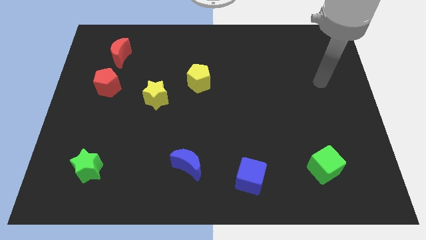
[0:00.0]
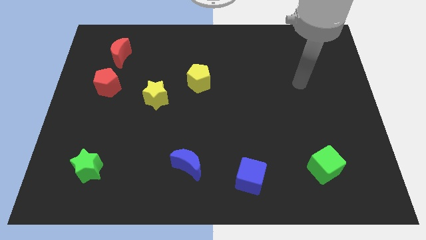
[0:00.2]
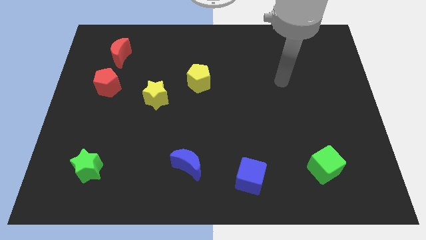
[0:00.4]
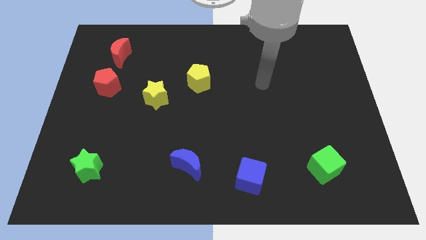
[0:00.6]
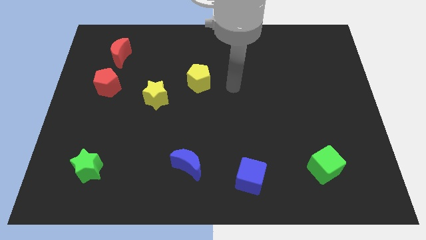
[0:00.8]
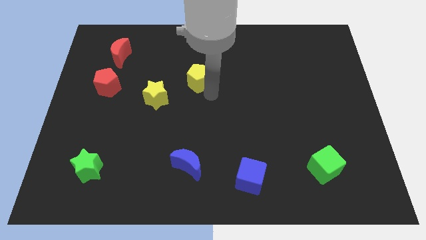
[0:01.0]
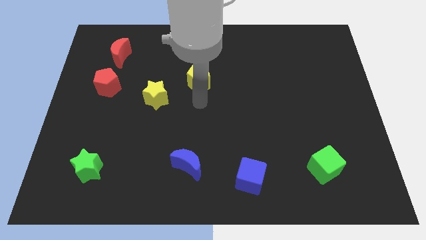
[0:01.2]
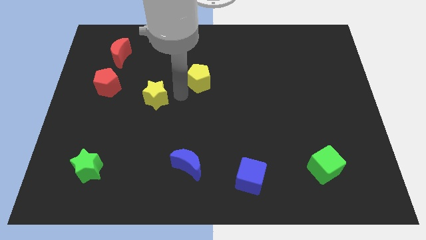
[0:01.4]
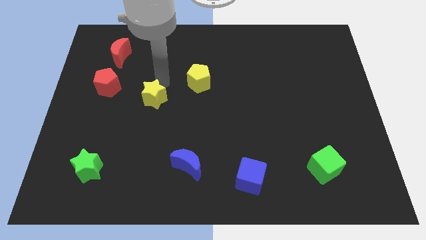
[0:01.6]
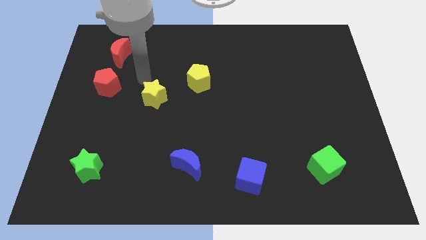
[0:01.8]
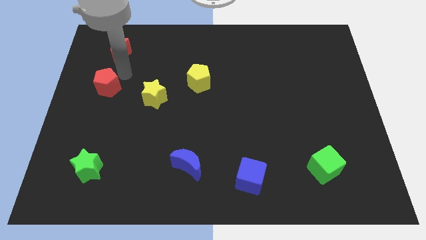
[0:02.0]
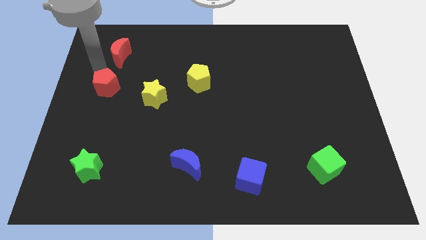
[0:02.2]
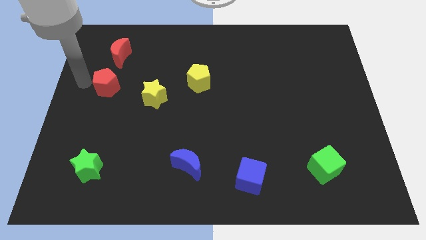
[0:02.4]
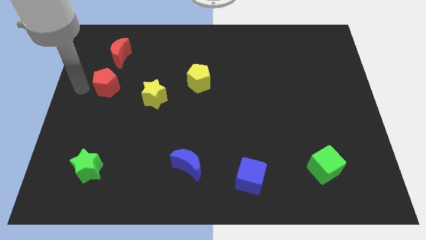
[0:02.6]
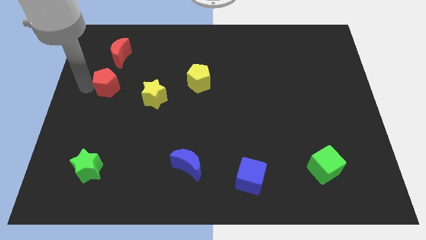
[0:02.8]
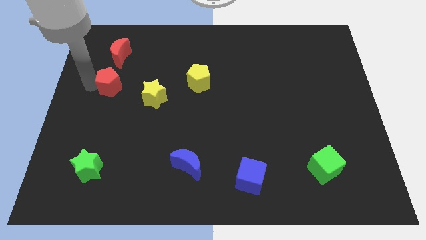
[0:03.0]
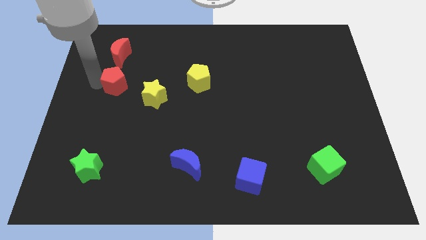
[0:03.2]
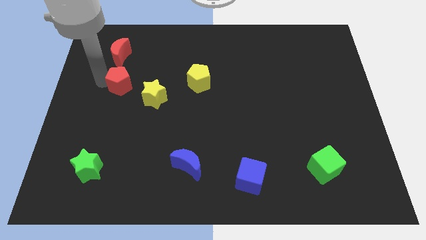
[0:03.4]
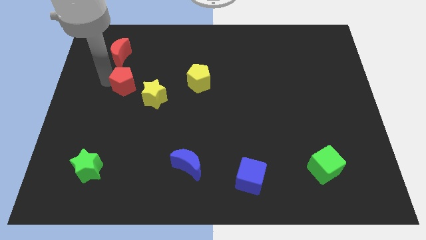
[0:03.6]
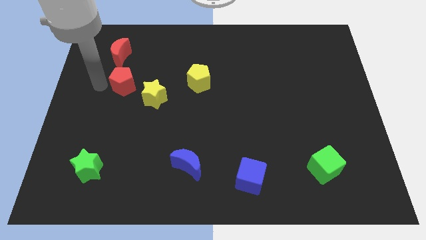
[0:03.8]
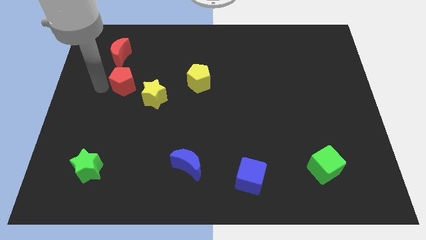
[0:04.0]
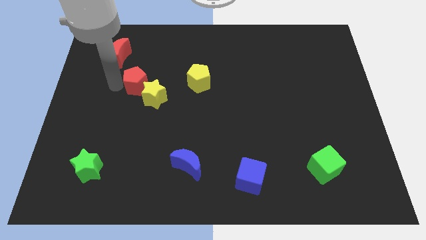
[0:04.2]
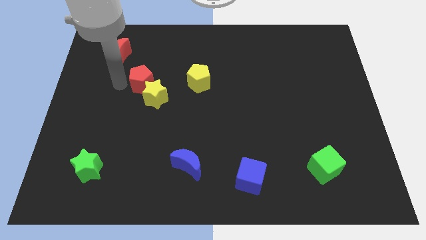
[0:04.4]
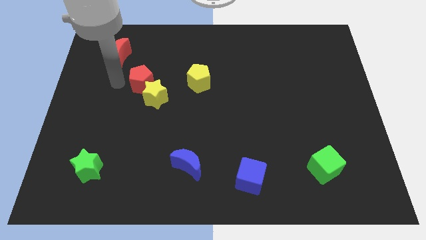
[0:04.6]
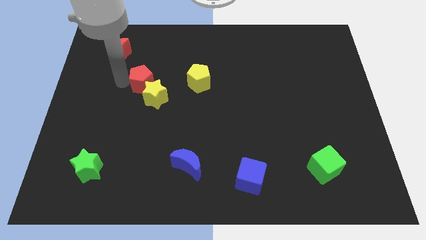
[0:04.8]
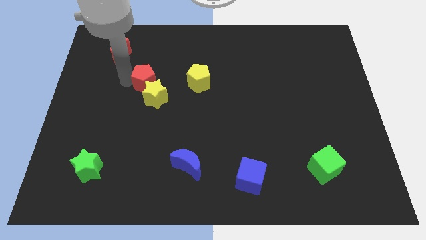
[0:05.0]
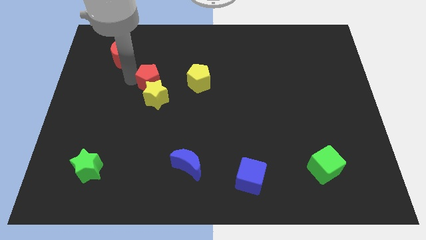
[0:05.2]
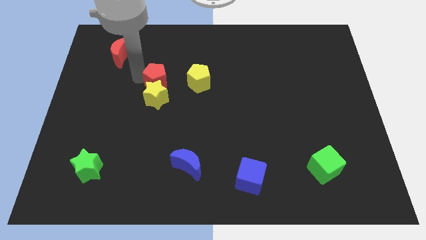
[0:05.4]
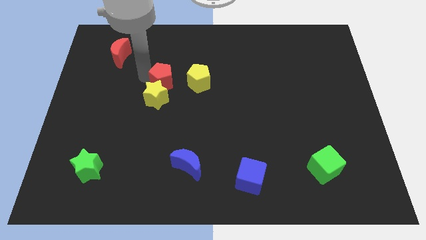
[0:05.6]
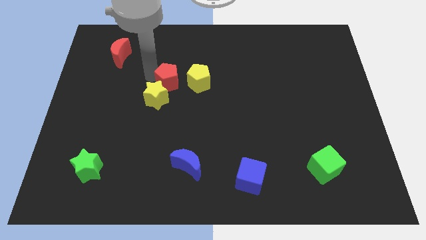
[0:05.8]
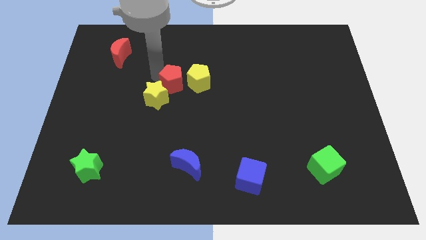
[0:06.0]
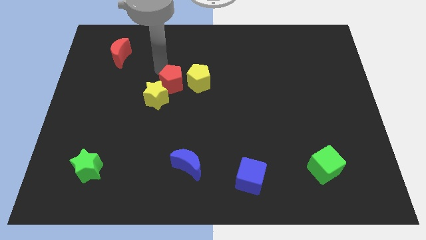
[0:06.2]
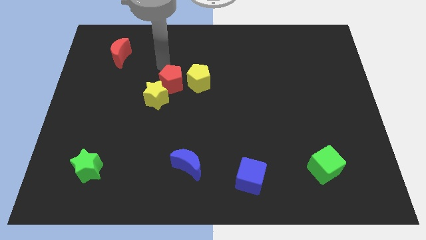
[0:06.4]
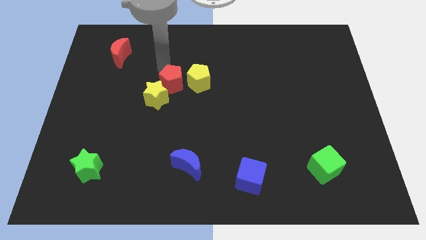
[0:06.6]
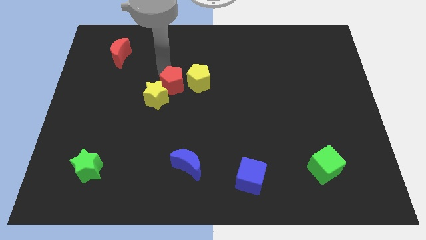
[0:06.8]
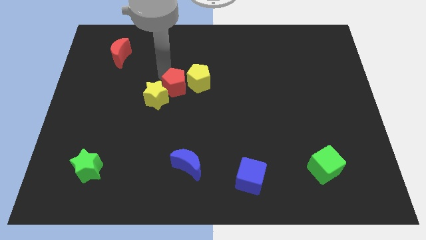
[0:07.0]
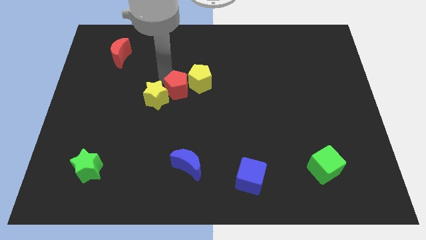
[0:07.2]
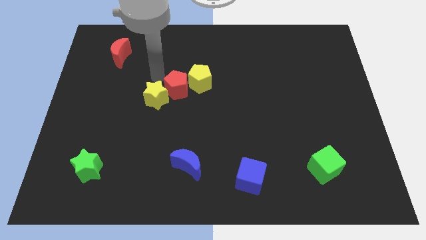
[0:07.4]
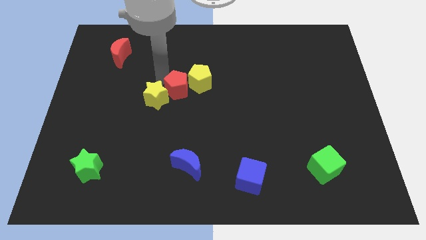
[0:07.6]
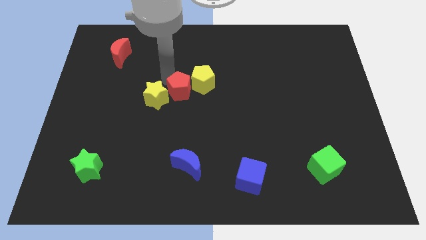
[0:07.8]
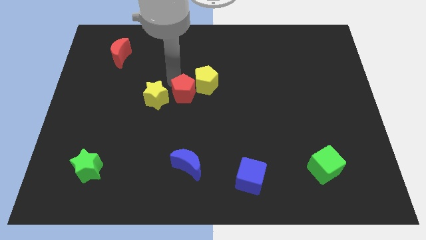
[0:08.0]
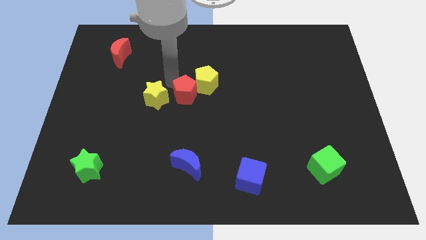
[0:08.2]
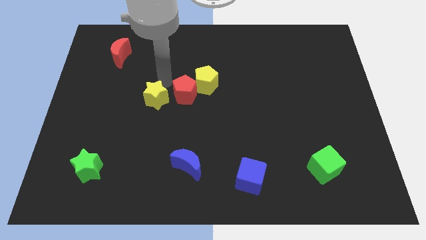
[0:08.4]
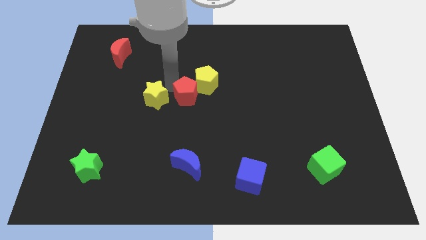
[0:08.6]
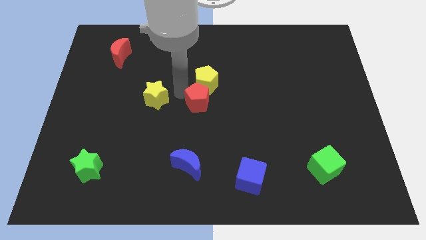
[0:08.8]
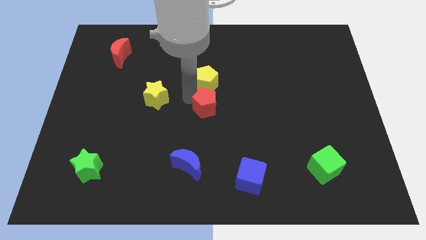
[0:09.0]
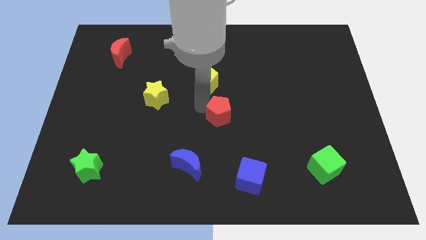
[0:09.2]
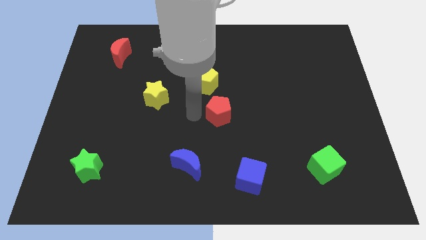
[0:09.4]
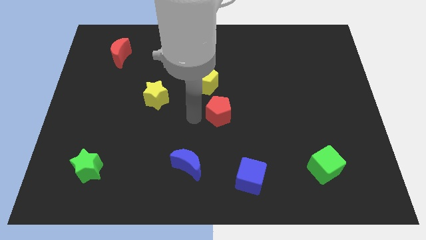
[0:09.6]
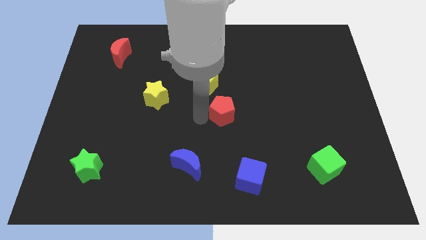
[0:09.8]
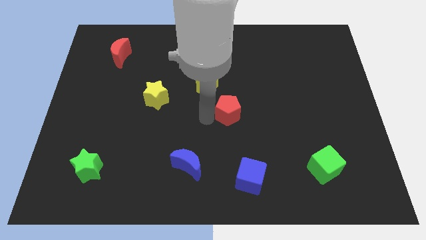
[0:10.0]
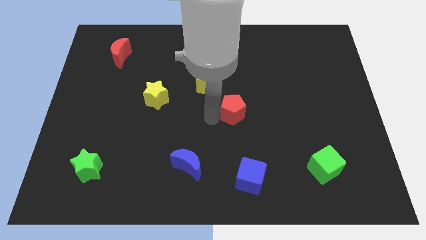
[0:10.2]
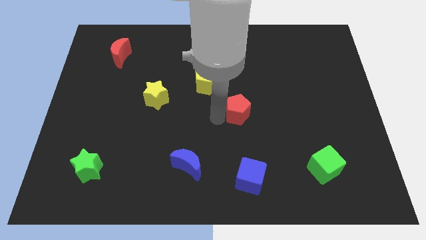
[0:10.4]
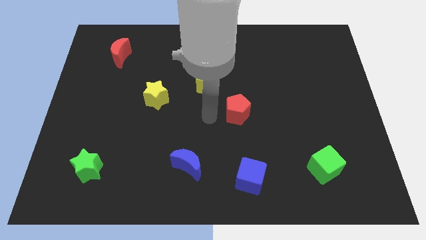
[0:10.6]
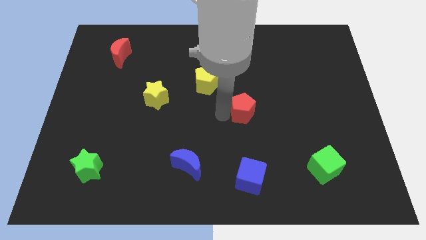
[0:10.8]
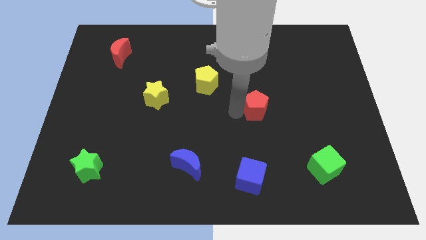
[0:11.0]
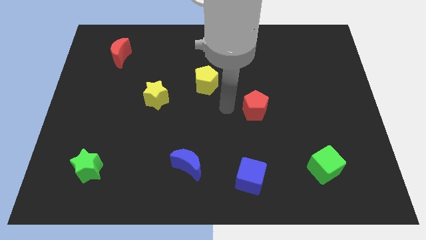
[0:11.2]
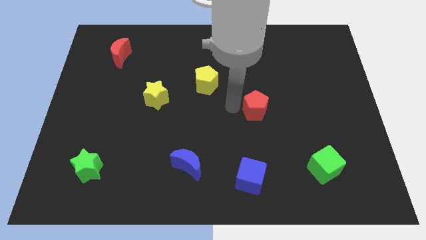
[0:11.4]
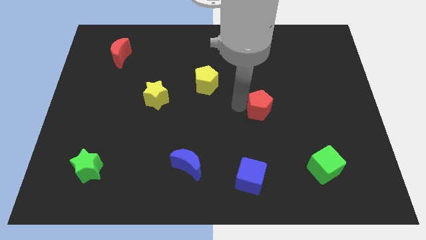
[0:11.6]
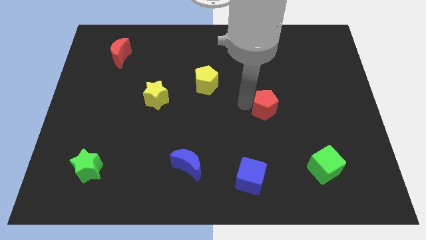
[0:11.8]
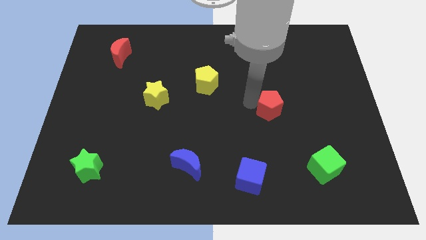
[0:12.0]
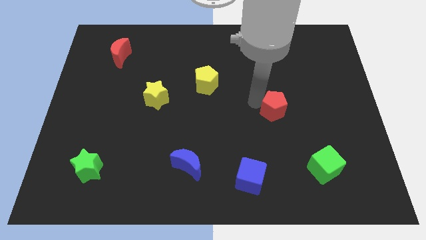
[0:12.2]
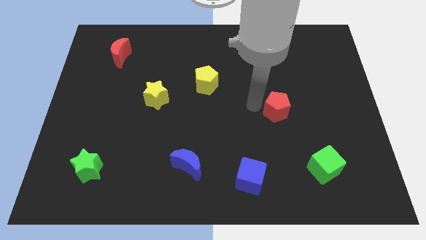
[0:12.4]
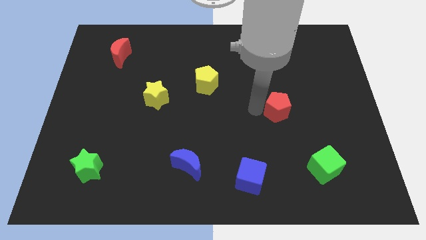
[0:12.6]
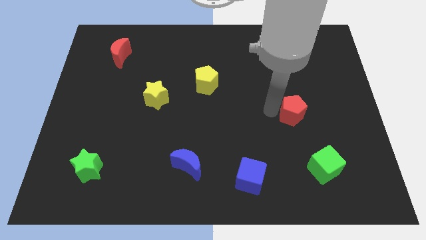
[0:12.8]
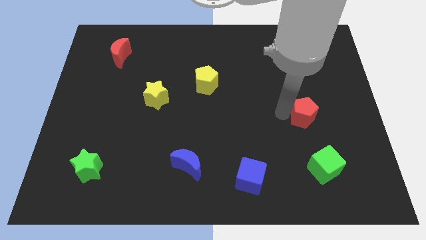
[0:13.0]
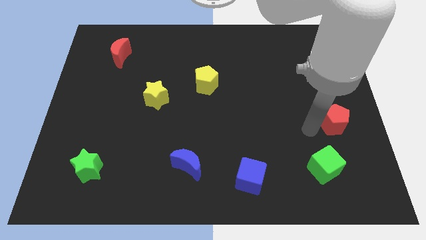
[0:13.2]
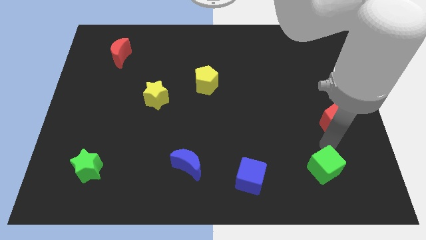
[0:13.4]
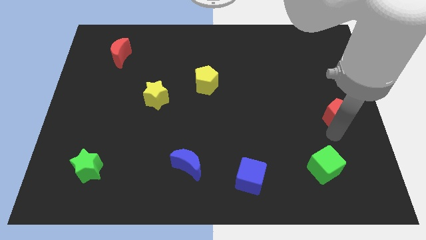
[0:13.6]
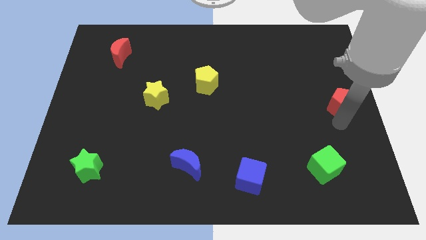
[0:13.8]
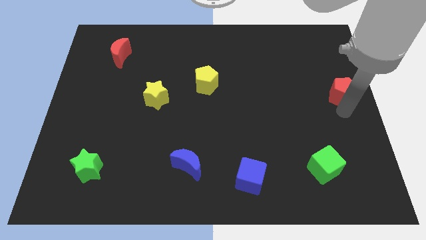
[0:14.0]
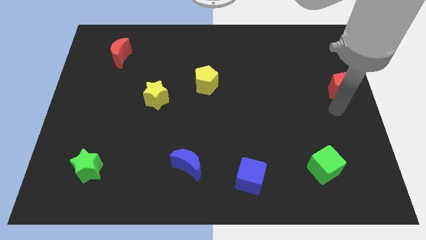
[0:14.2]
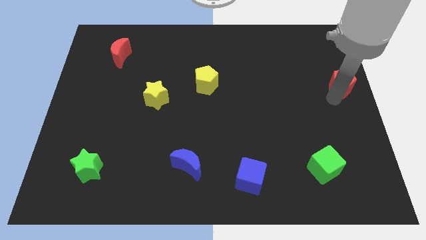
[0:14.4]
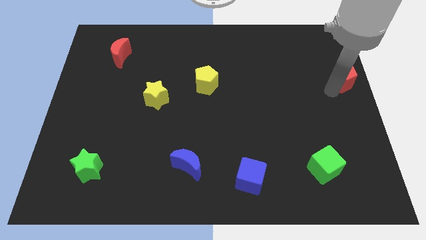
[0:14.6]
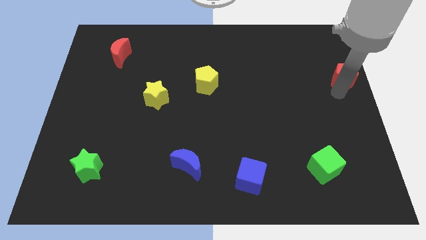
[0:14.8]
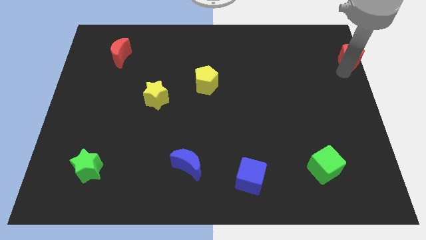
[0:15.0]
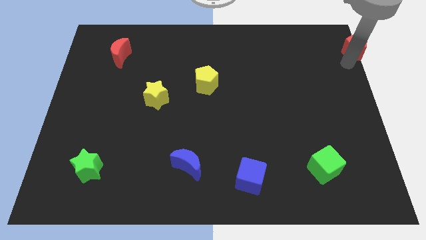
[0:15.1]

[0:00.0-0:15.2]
push the red pentagon to the top right
